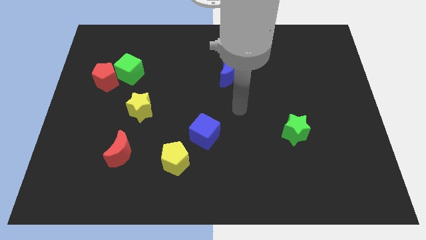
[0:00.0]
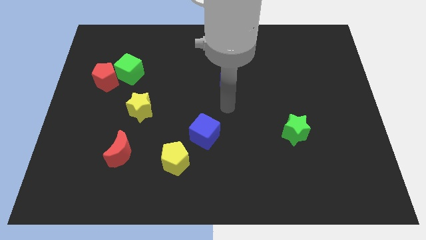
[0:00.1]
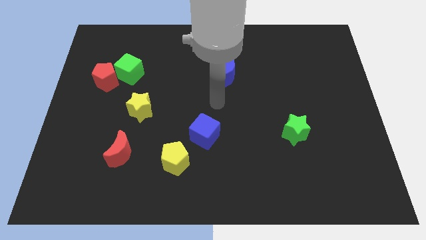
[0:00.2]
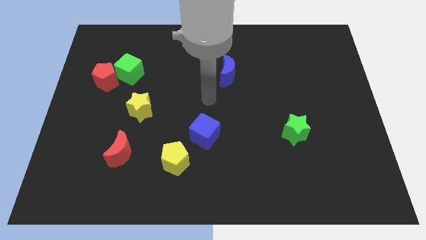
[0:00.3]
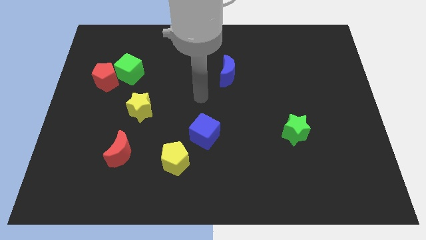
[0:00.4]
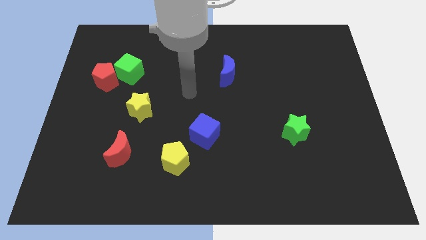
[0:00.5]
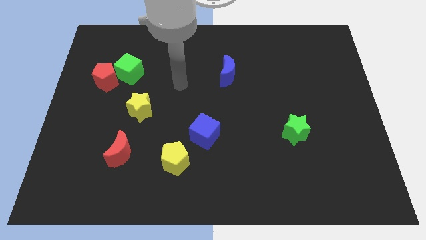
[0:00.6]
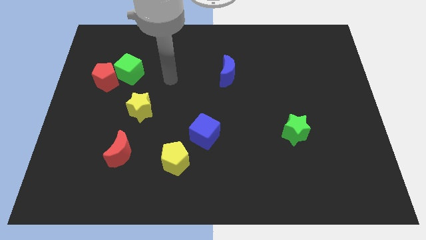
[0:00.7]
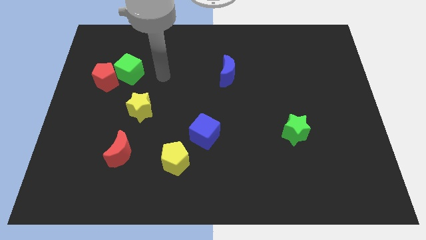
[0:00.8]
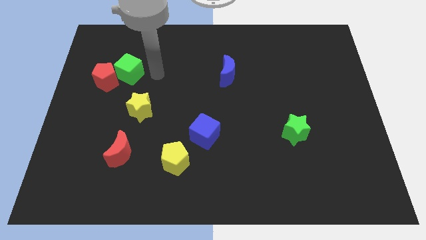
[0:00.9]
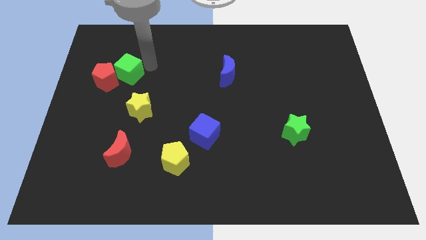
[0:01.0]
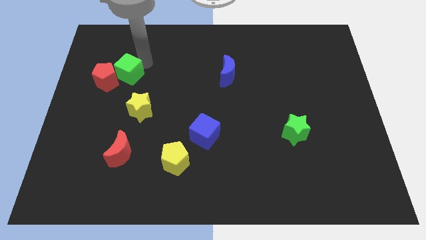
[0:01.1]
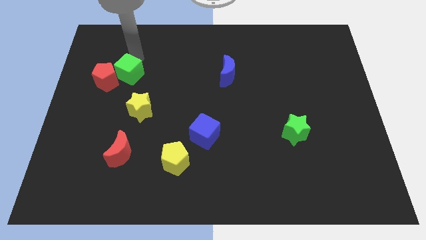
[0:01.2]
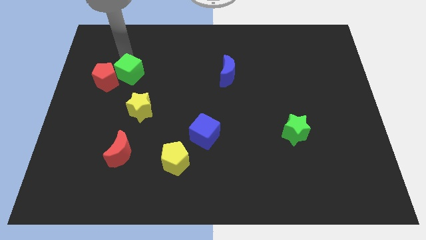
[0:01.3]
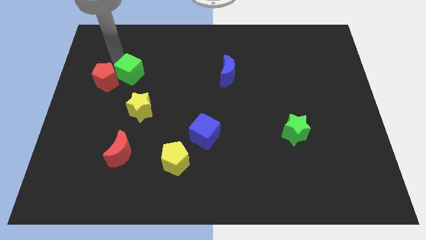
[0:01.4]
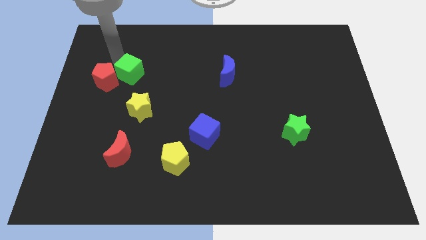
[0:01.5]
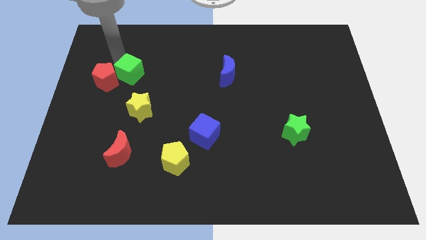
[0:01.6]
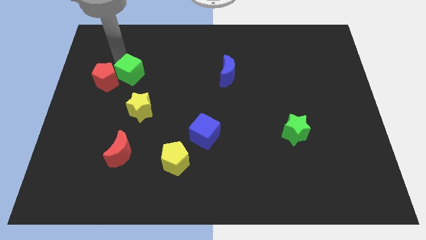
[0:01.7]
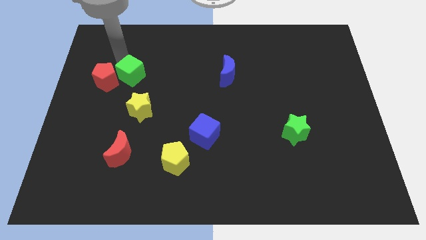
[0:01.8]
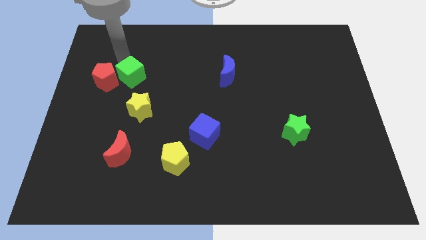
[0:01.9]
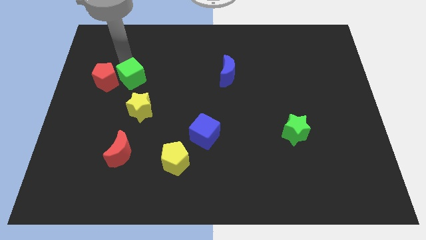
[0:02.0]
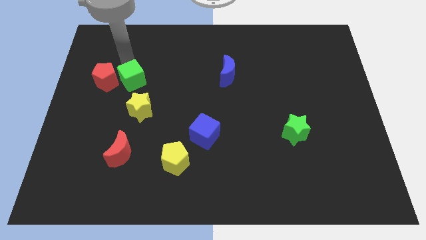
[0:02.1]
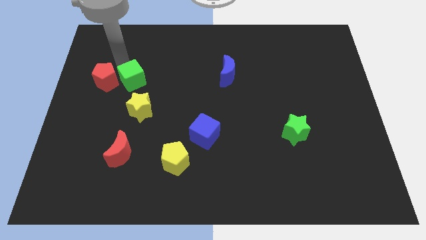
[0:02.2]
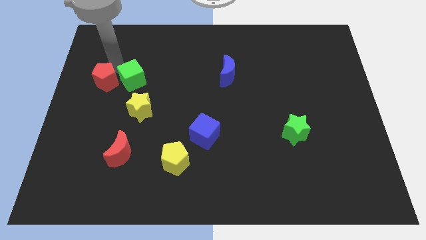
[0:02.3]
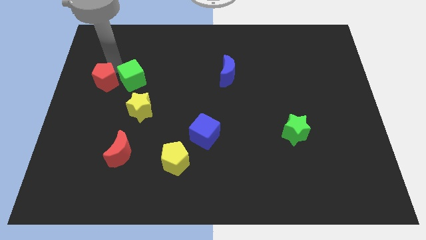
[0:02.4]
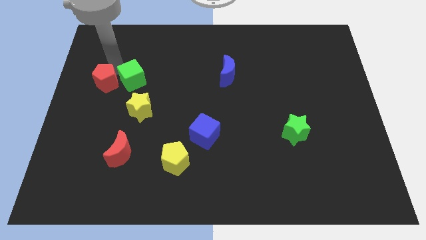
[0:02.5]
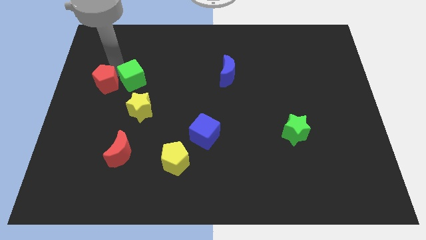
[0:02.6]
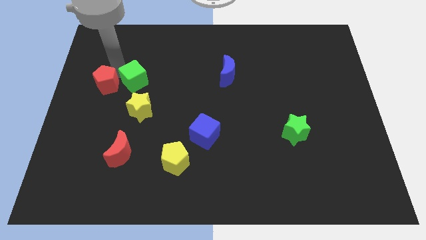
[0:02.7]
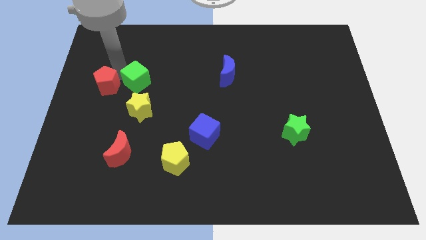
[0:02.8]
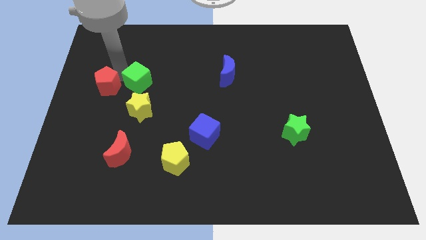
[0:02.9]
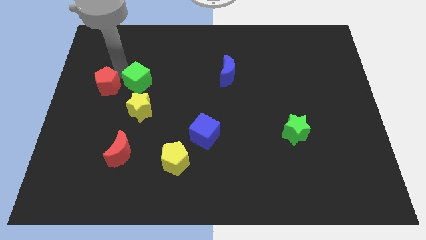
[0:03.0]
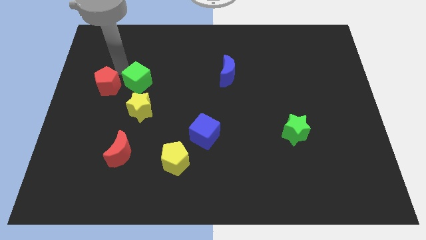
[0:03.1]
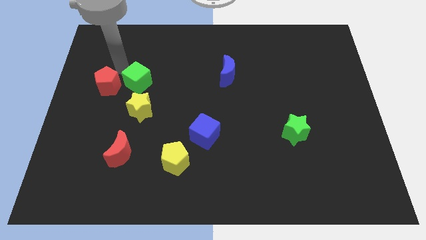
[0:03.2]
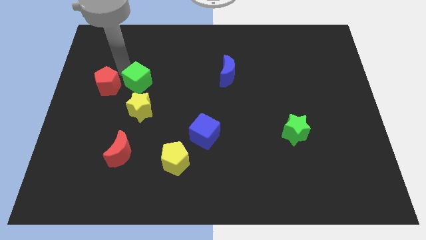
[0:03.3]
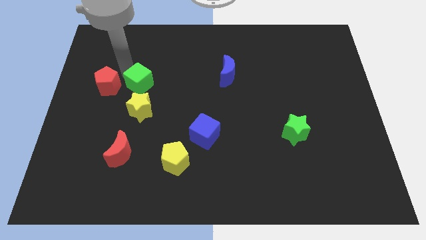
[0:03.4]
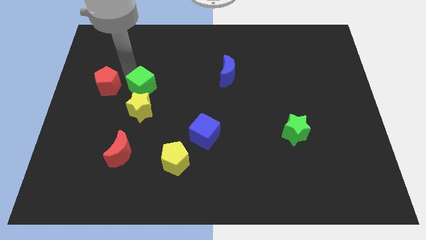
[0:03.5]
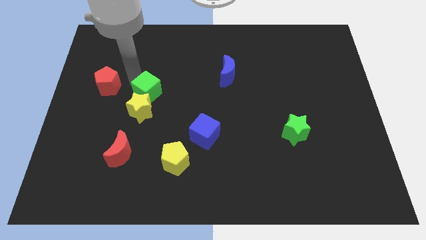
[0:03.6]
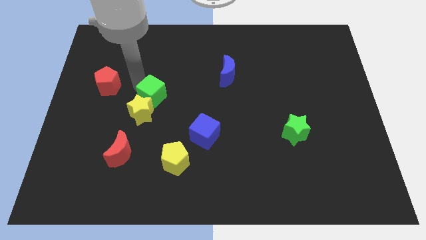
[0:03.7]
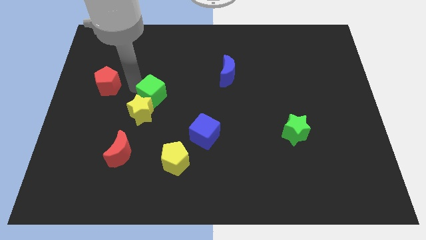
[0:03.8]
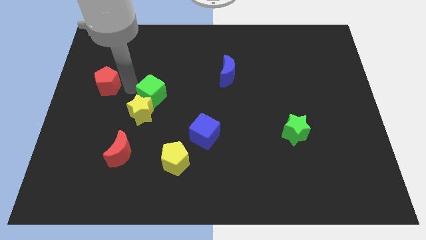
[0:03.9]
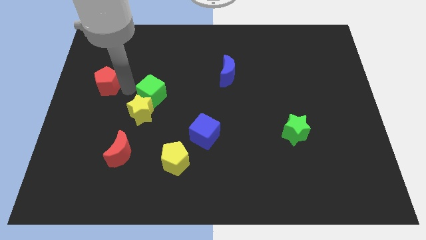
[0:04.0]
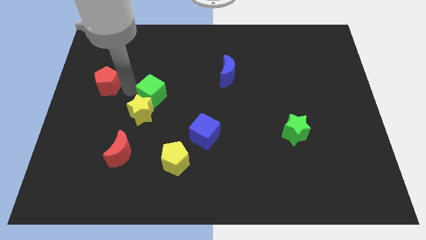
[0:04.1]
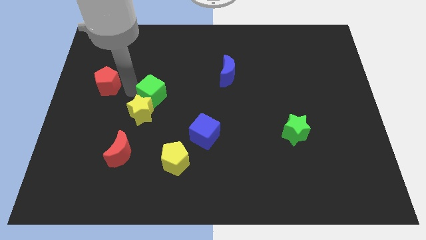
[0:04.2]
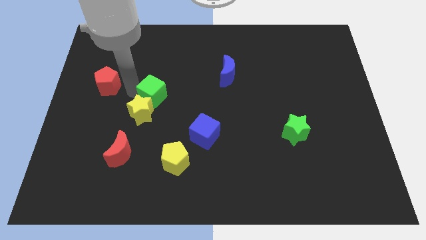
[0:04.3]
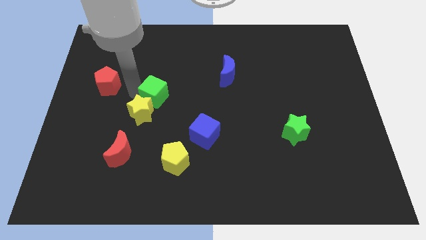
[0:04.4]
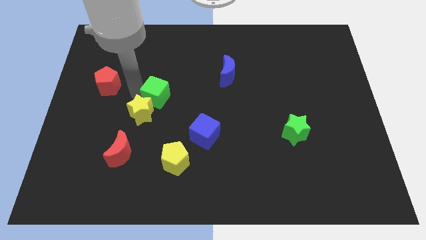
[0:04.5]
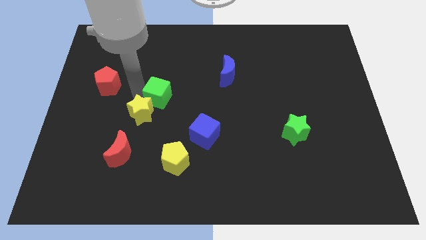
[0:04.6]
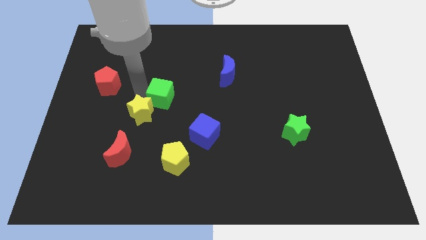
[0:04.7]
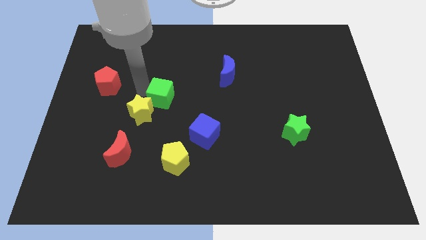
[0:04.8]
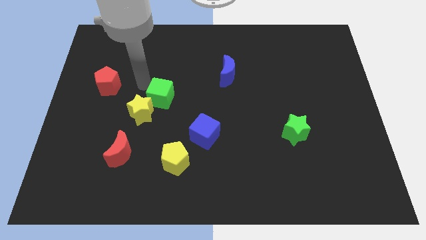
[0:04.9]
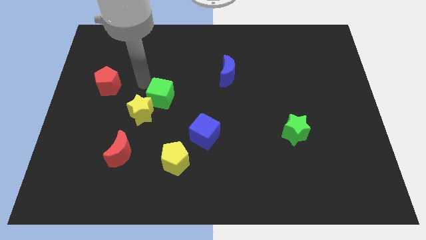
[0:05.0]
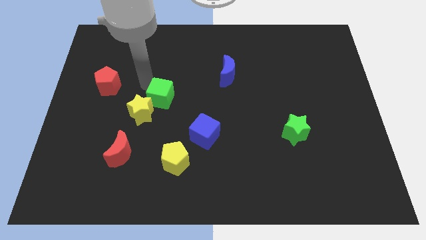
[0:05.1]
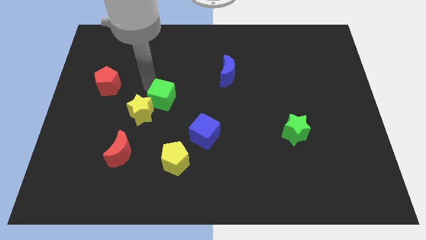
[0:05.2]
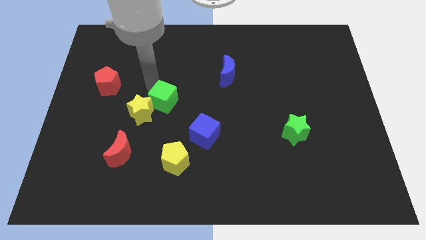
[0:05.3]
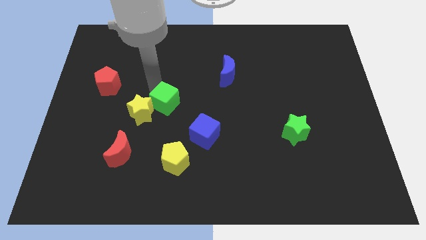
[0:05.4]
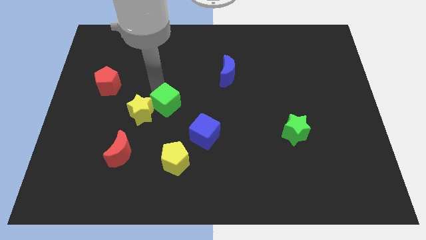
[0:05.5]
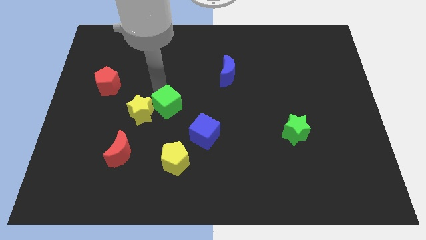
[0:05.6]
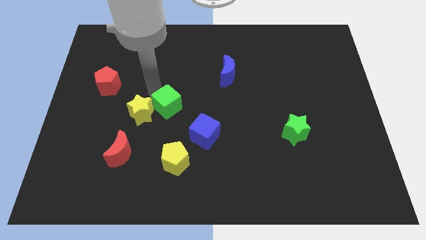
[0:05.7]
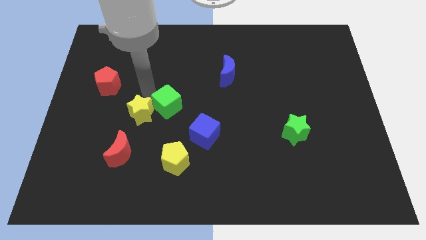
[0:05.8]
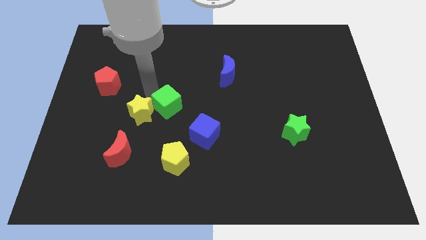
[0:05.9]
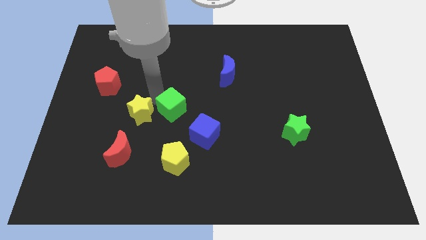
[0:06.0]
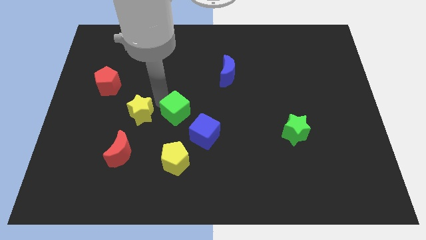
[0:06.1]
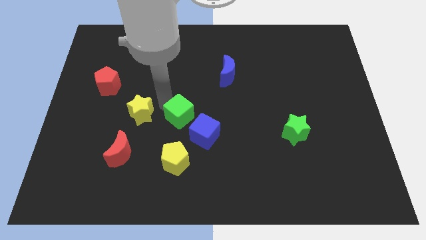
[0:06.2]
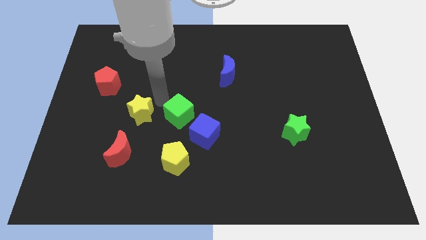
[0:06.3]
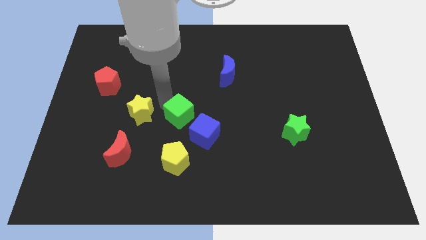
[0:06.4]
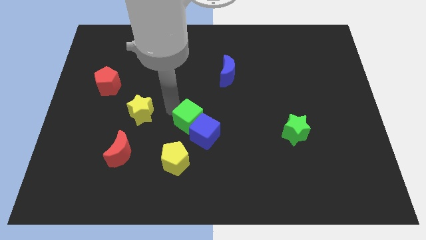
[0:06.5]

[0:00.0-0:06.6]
move the green cube next to the blue cube

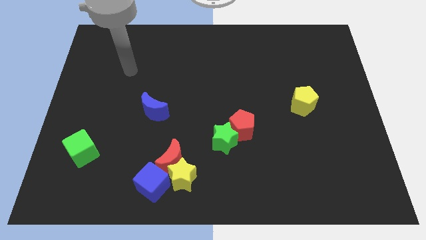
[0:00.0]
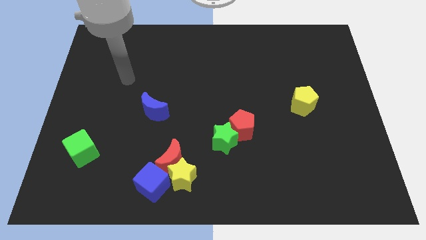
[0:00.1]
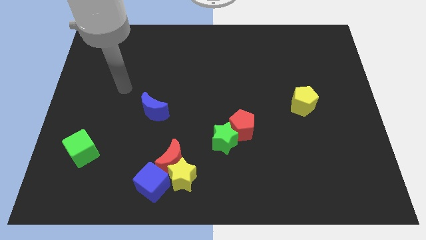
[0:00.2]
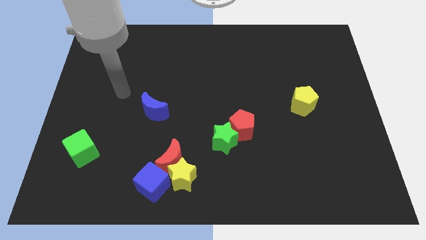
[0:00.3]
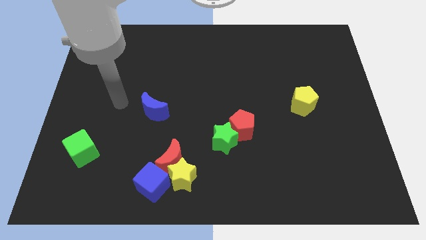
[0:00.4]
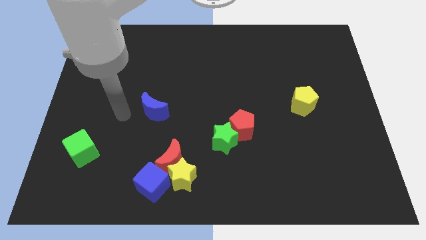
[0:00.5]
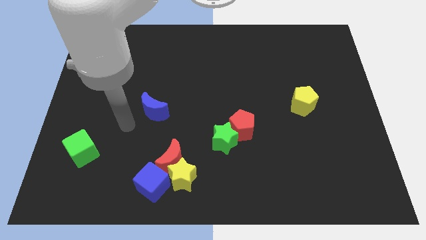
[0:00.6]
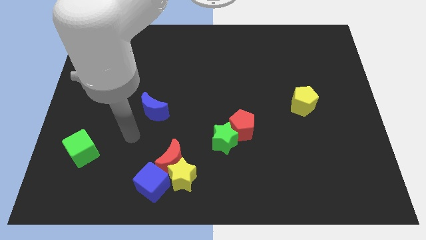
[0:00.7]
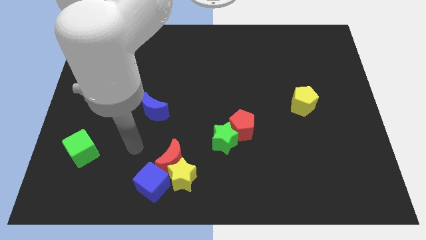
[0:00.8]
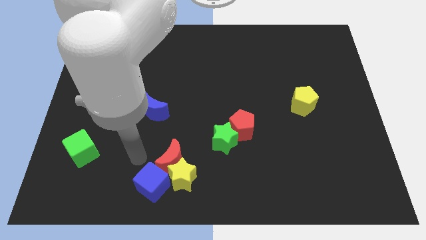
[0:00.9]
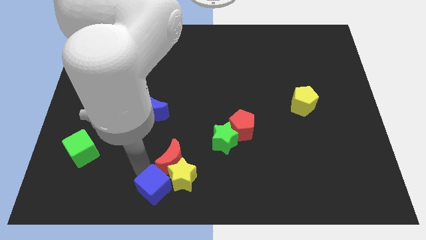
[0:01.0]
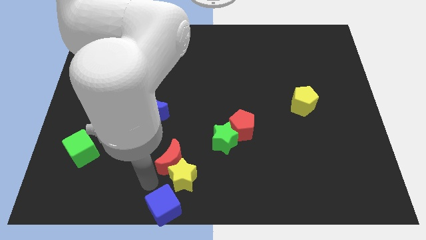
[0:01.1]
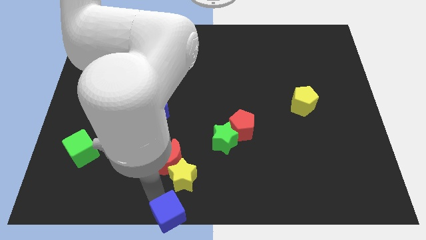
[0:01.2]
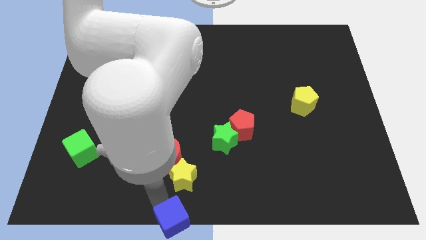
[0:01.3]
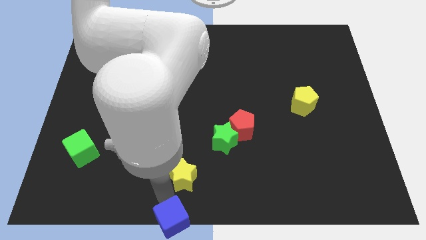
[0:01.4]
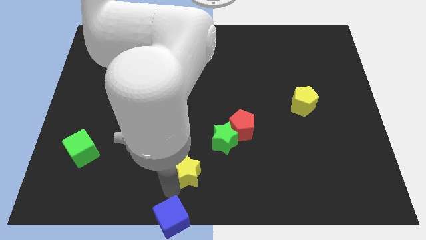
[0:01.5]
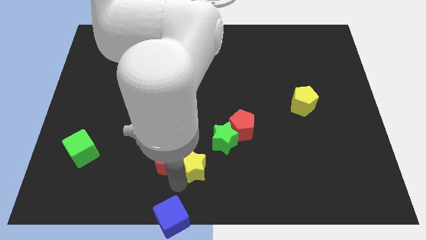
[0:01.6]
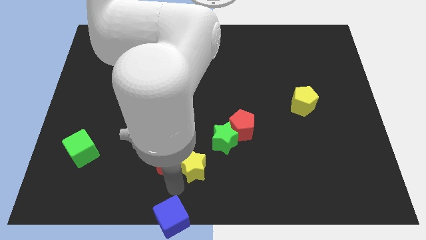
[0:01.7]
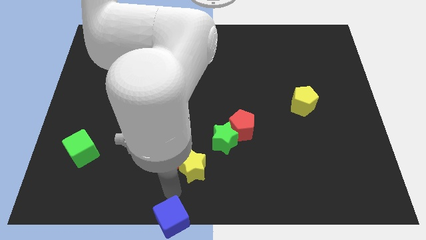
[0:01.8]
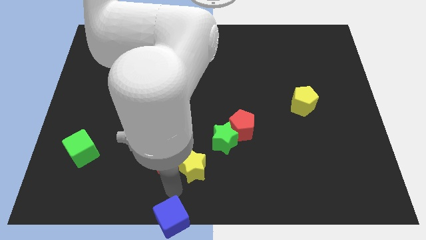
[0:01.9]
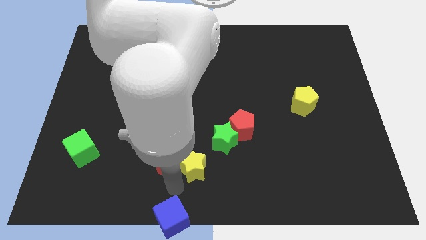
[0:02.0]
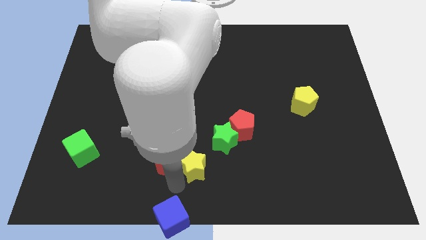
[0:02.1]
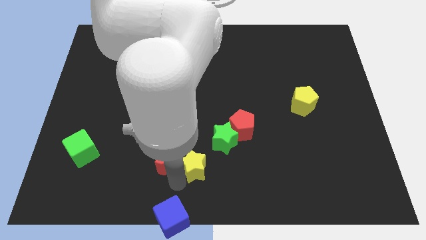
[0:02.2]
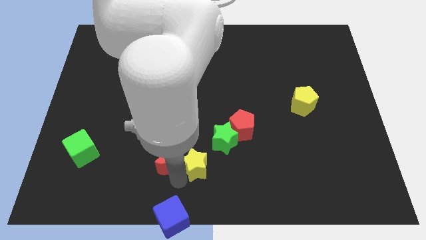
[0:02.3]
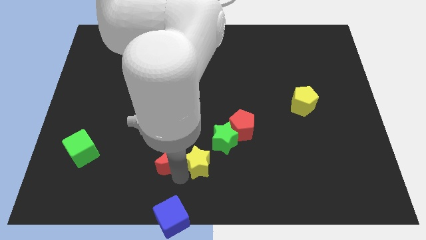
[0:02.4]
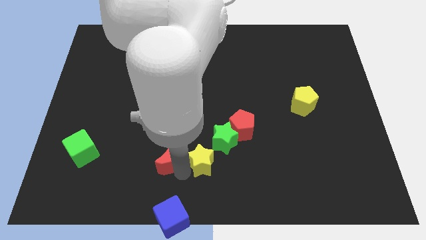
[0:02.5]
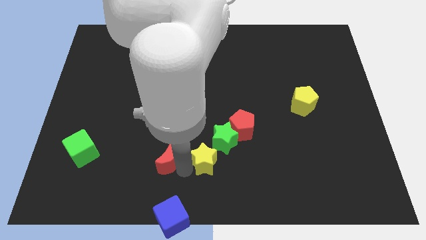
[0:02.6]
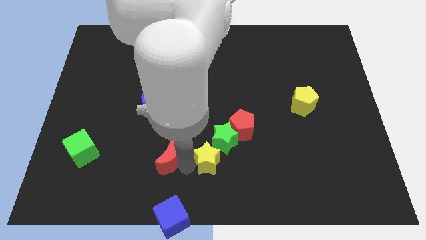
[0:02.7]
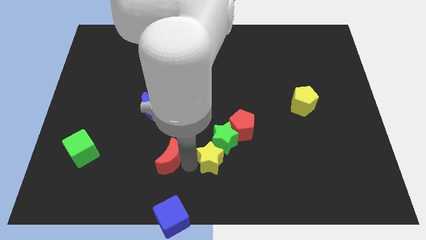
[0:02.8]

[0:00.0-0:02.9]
push the yellow star next to the green star
